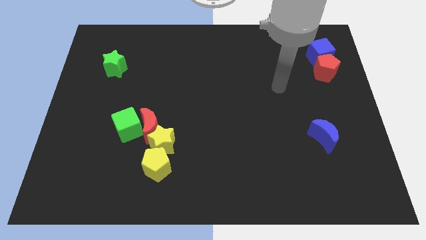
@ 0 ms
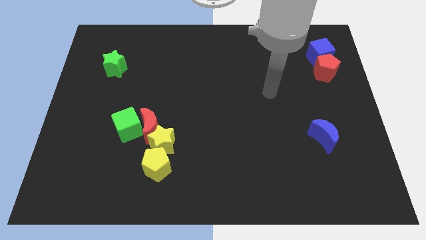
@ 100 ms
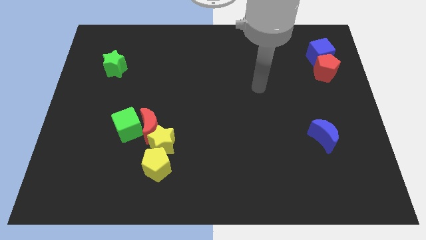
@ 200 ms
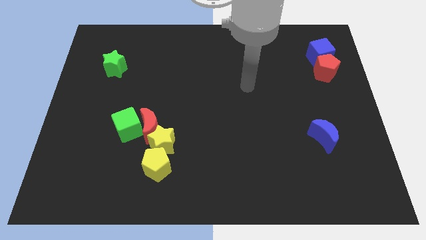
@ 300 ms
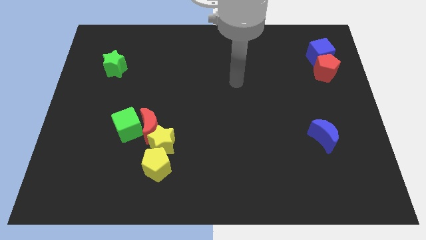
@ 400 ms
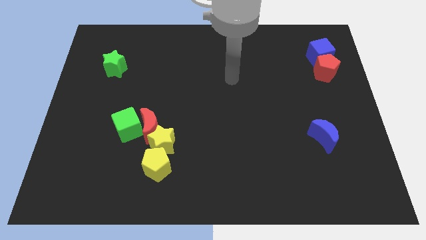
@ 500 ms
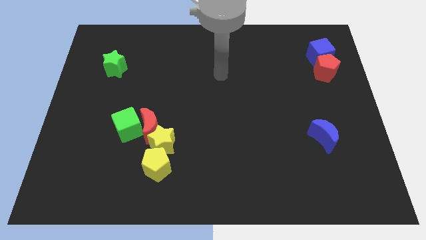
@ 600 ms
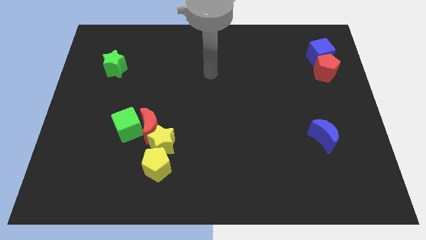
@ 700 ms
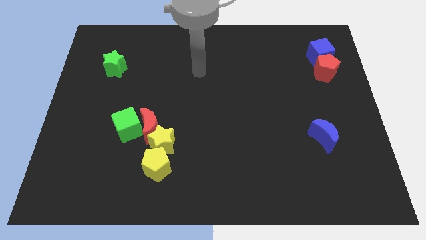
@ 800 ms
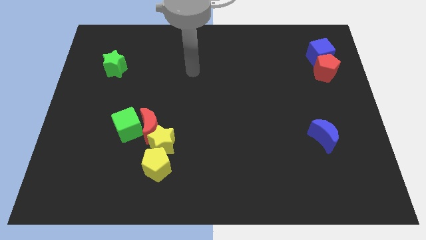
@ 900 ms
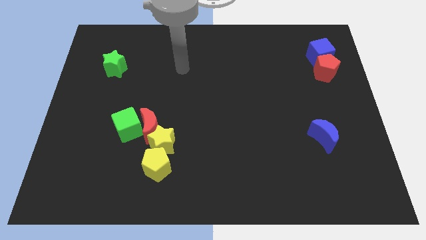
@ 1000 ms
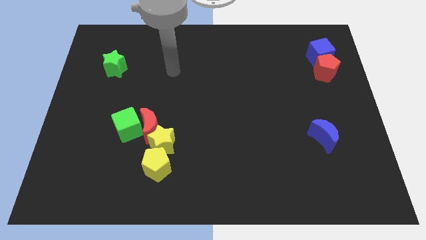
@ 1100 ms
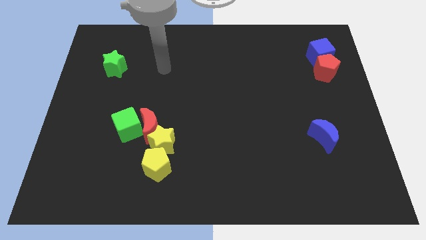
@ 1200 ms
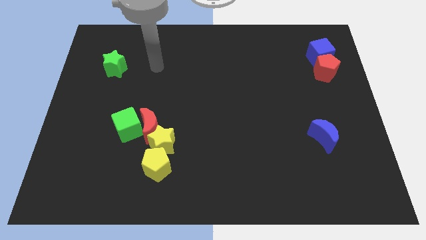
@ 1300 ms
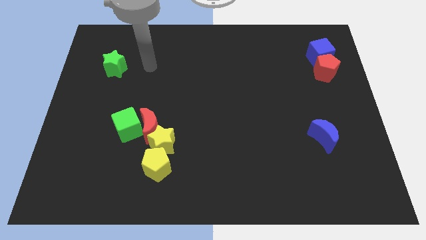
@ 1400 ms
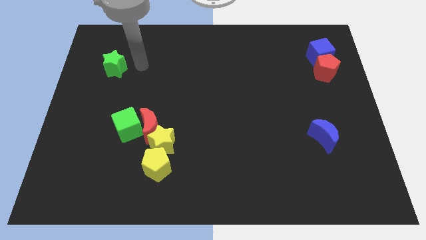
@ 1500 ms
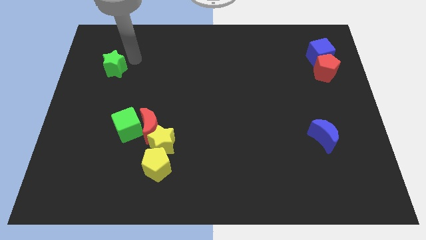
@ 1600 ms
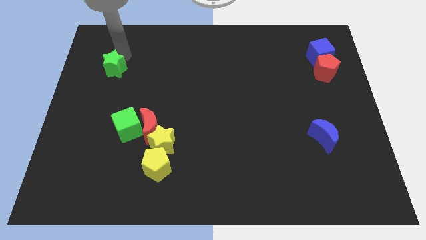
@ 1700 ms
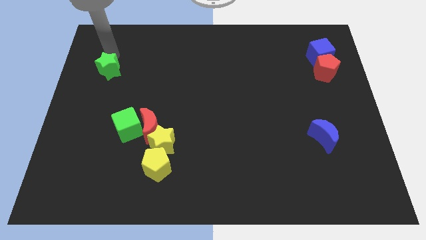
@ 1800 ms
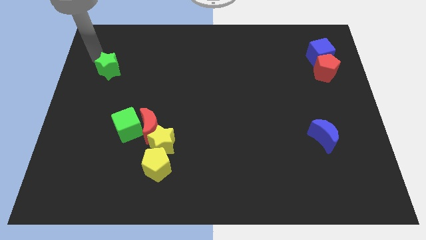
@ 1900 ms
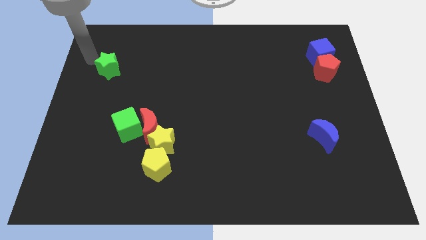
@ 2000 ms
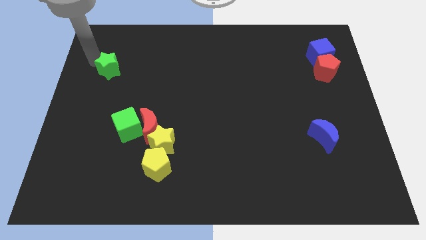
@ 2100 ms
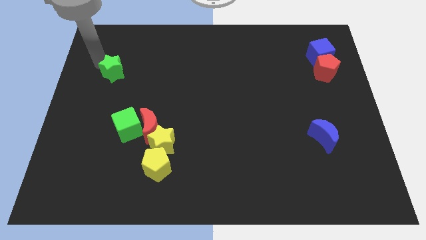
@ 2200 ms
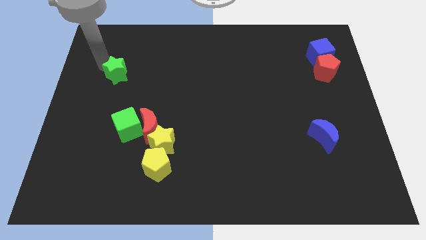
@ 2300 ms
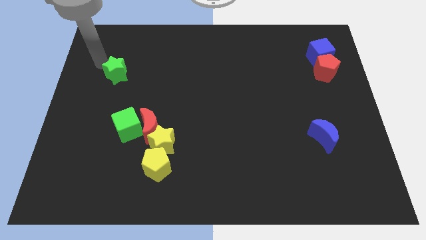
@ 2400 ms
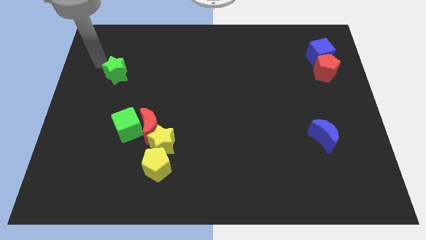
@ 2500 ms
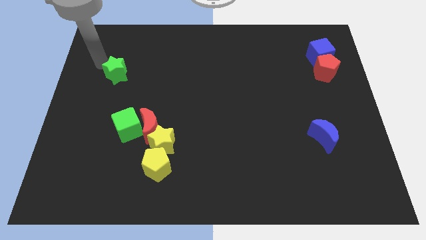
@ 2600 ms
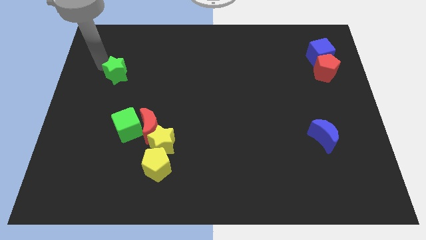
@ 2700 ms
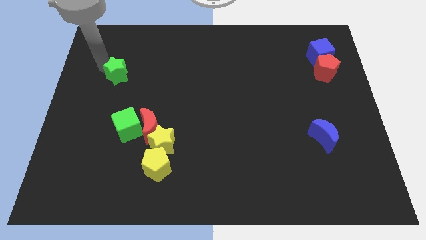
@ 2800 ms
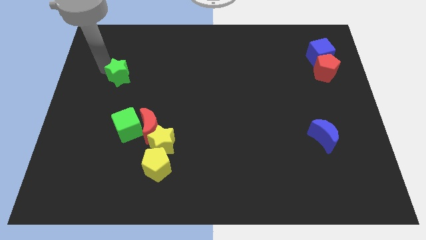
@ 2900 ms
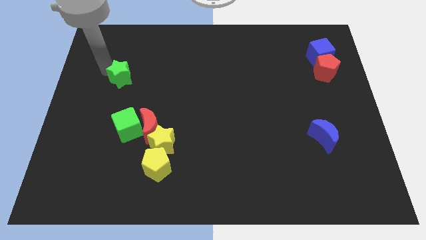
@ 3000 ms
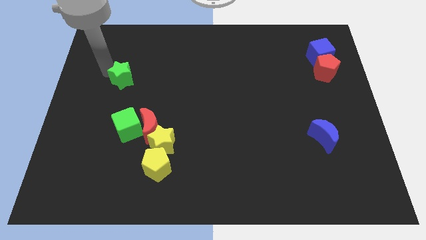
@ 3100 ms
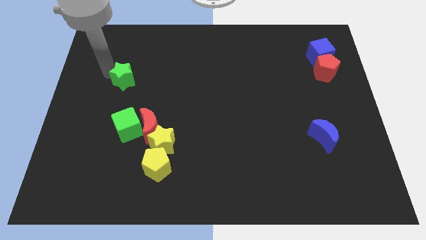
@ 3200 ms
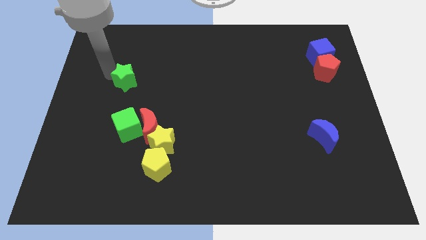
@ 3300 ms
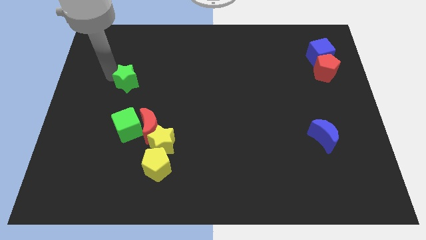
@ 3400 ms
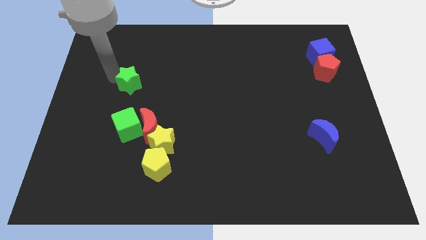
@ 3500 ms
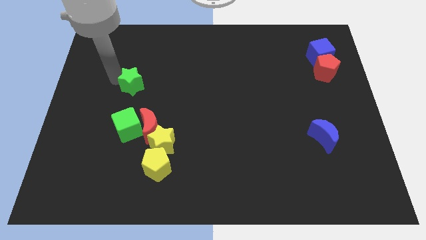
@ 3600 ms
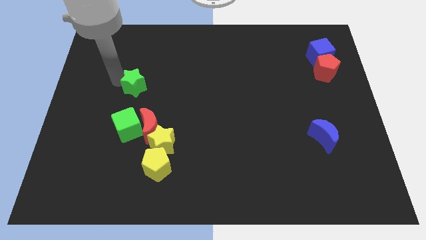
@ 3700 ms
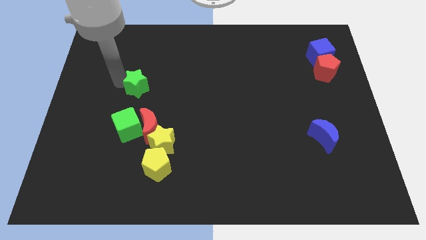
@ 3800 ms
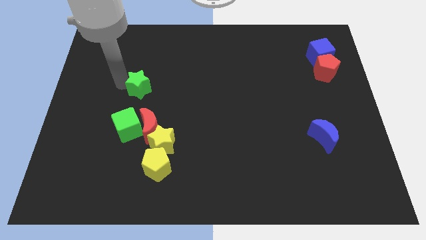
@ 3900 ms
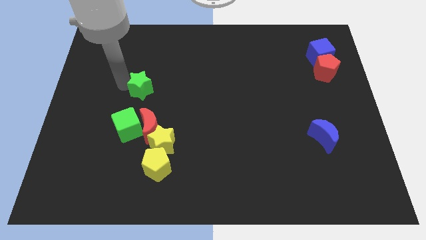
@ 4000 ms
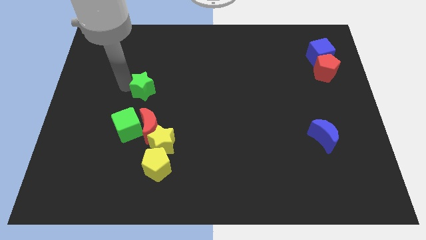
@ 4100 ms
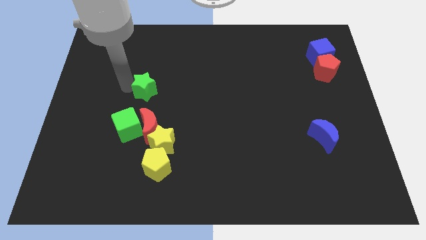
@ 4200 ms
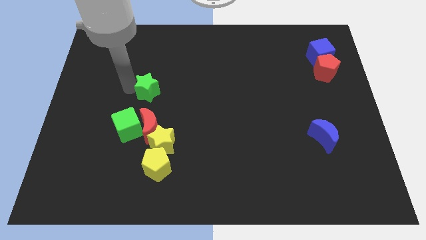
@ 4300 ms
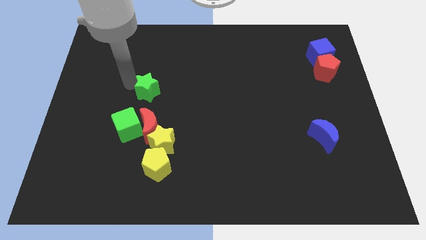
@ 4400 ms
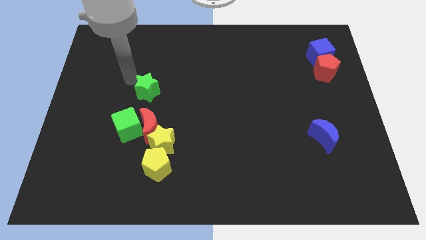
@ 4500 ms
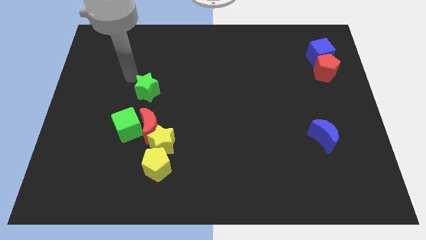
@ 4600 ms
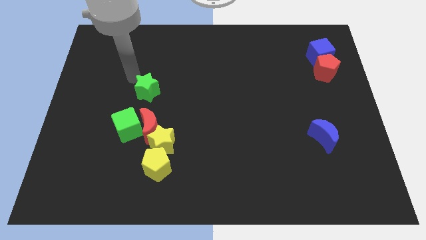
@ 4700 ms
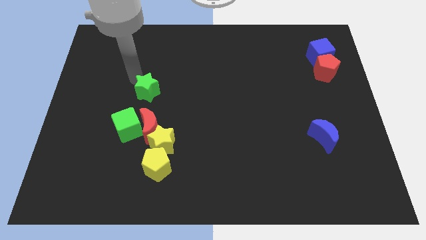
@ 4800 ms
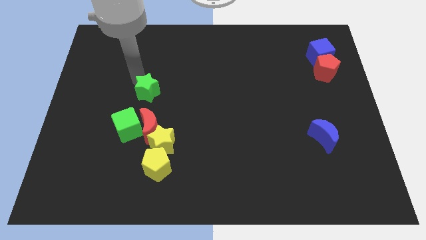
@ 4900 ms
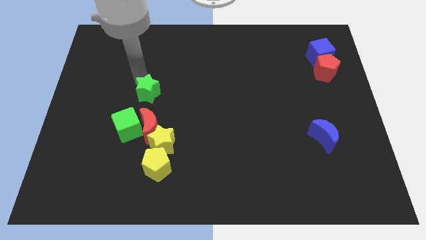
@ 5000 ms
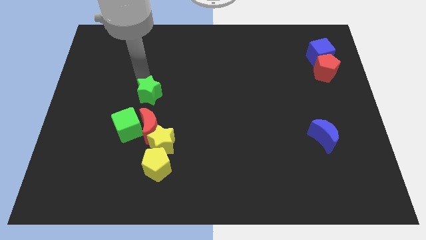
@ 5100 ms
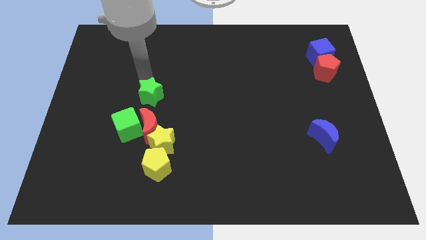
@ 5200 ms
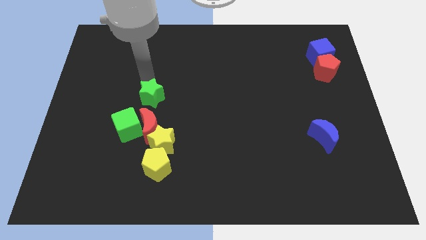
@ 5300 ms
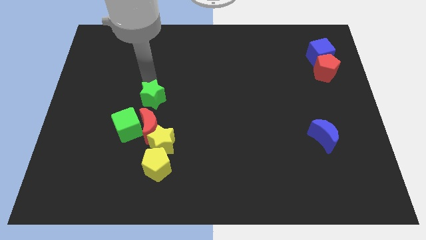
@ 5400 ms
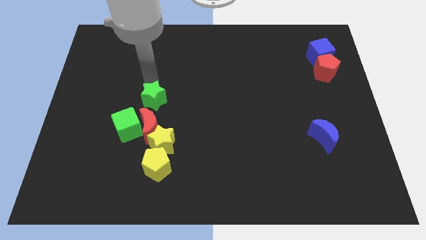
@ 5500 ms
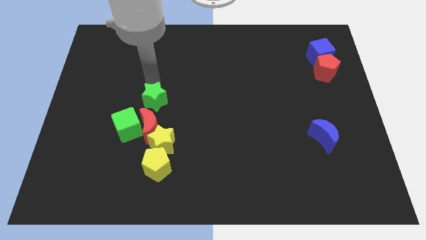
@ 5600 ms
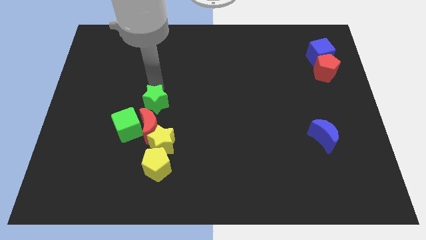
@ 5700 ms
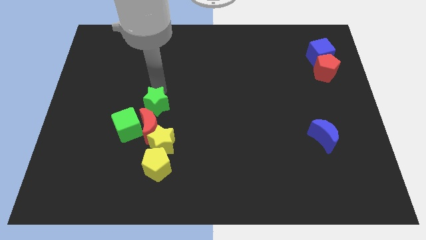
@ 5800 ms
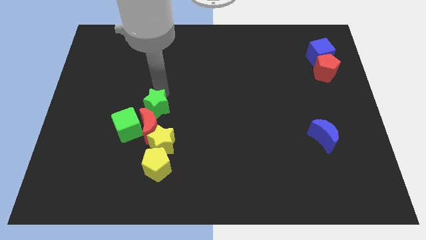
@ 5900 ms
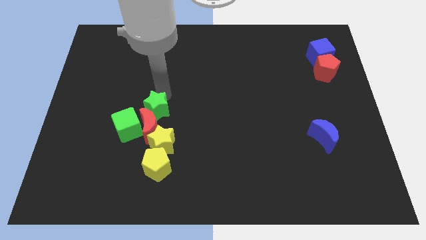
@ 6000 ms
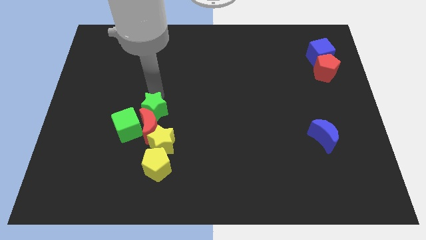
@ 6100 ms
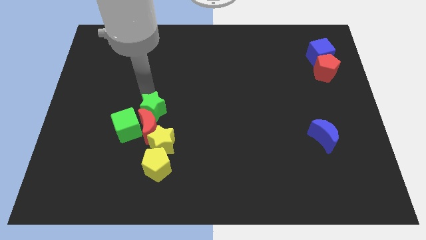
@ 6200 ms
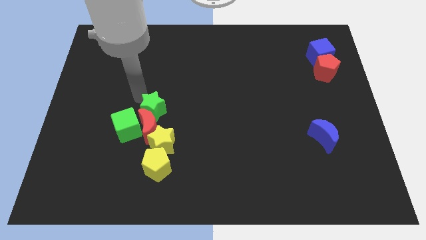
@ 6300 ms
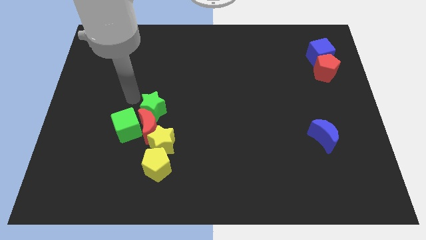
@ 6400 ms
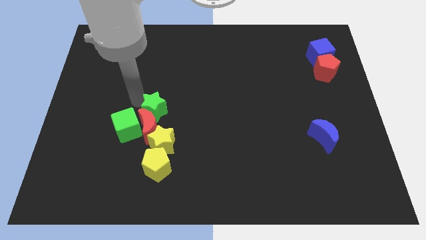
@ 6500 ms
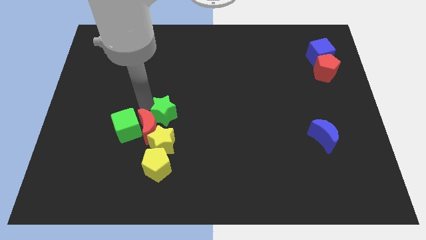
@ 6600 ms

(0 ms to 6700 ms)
slide the green star down and then right

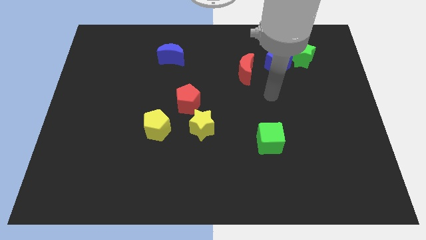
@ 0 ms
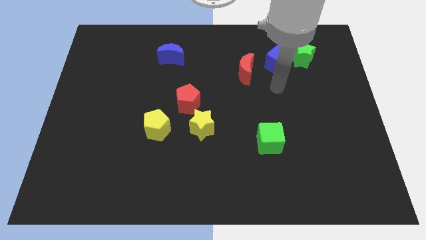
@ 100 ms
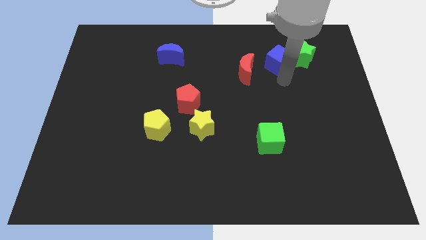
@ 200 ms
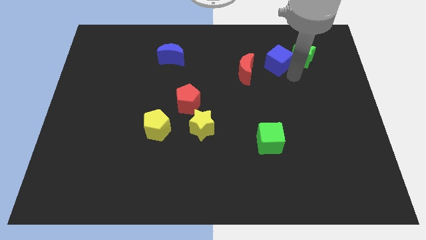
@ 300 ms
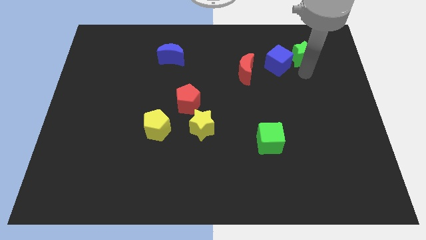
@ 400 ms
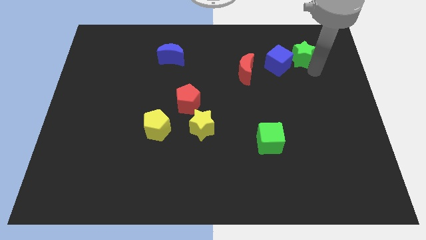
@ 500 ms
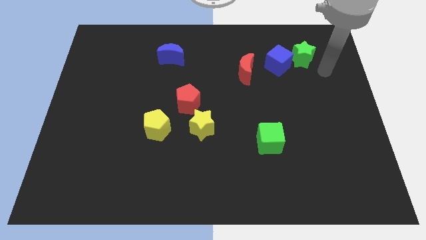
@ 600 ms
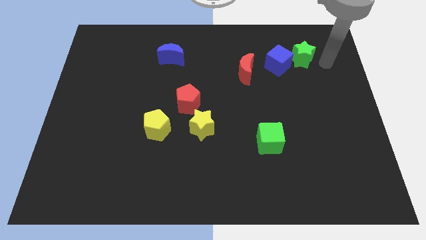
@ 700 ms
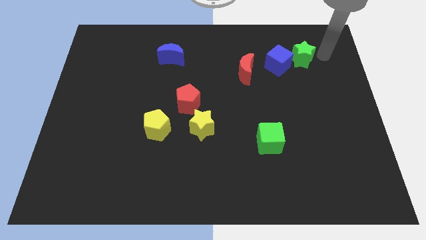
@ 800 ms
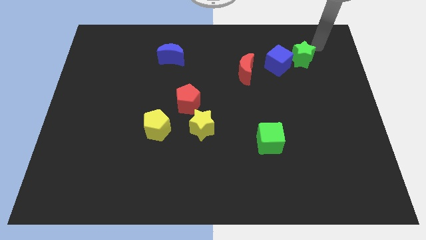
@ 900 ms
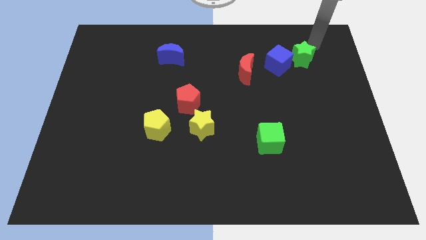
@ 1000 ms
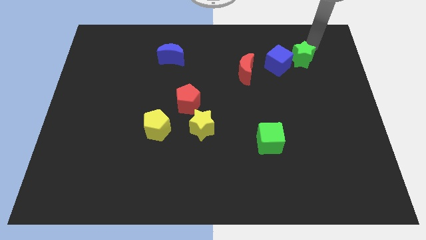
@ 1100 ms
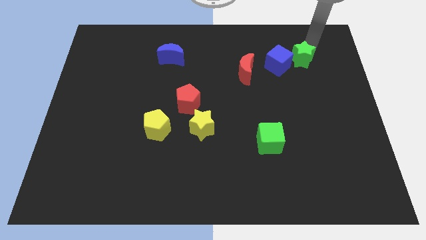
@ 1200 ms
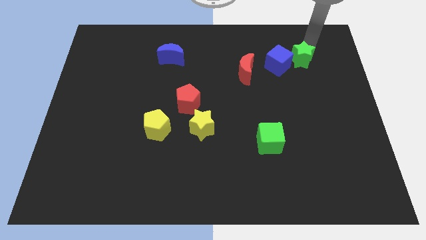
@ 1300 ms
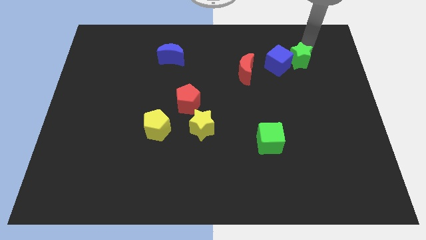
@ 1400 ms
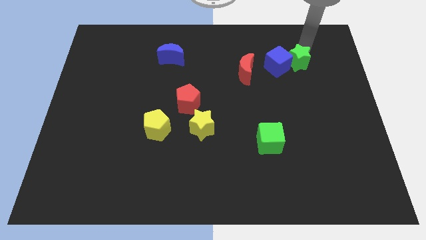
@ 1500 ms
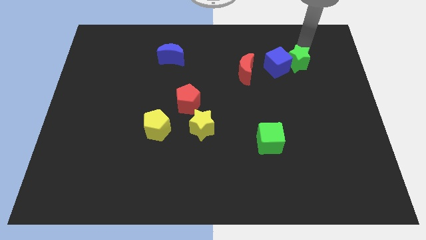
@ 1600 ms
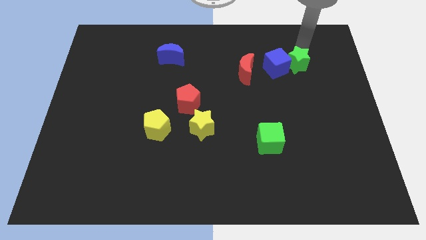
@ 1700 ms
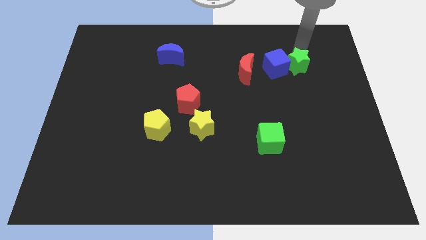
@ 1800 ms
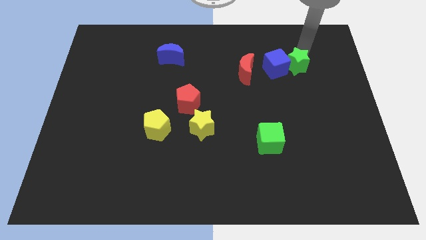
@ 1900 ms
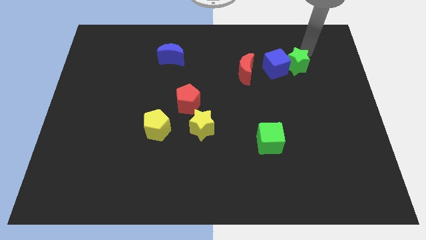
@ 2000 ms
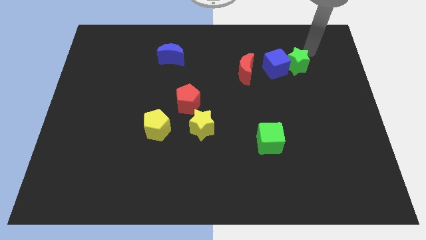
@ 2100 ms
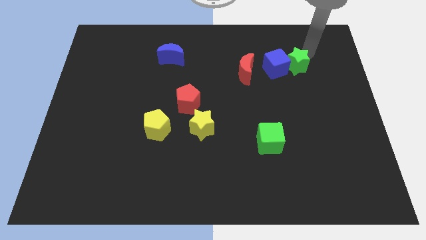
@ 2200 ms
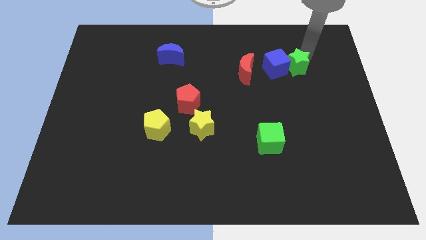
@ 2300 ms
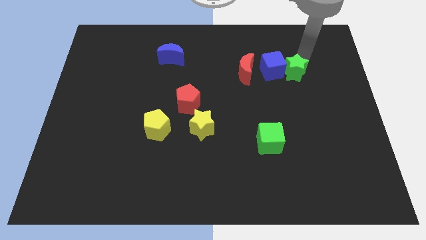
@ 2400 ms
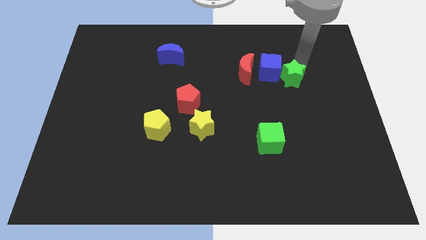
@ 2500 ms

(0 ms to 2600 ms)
slightly push the green star diagonally downwards and to the left
